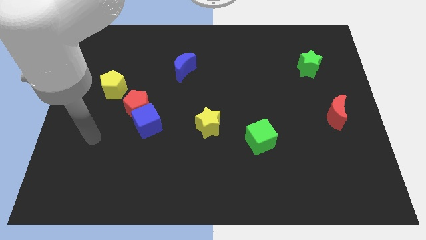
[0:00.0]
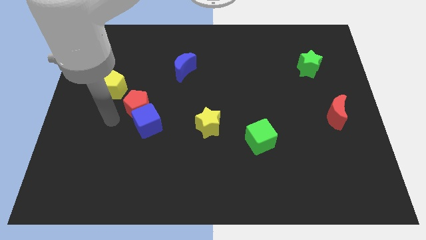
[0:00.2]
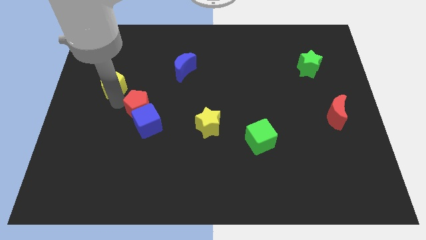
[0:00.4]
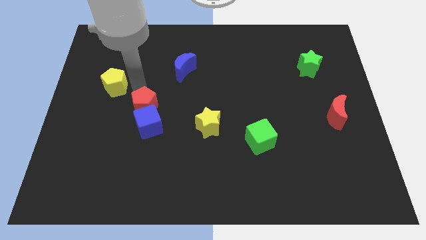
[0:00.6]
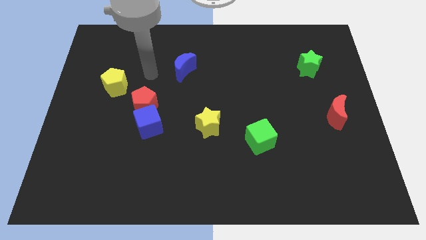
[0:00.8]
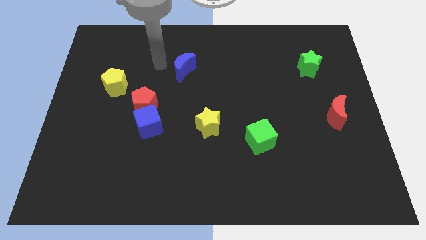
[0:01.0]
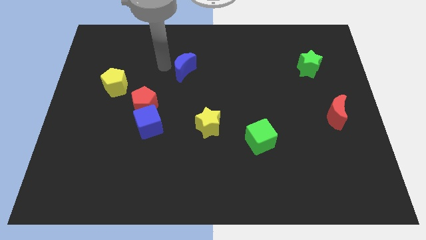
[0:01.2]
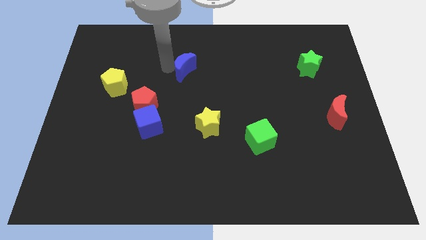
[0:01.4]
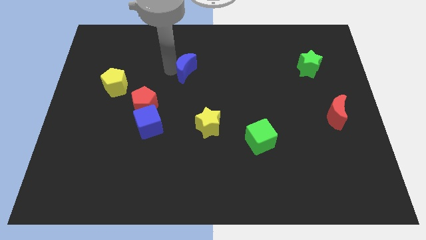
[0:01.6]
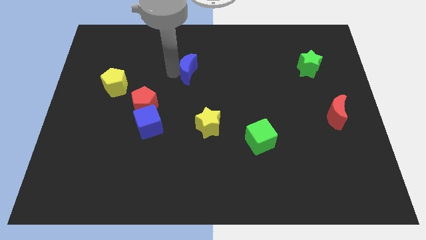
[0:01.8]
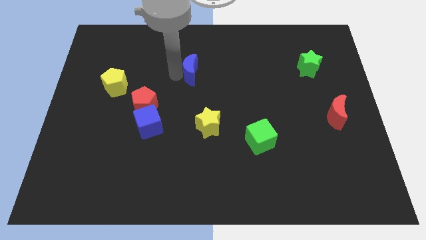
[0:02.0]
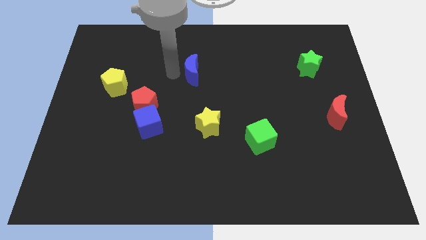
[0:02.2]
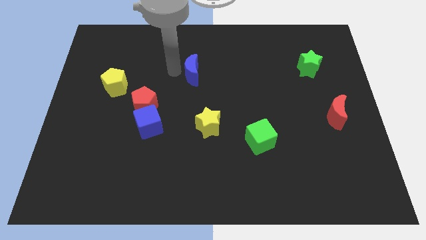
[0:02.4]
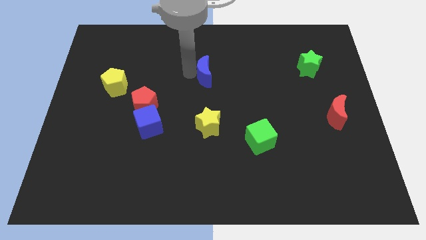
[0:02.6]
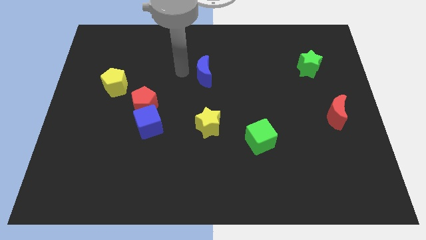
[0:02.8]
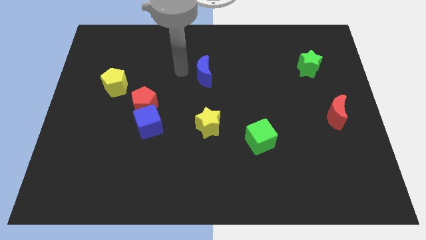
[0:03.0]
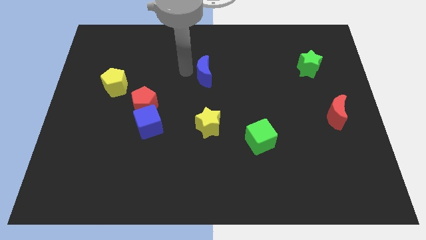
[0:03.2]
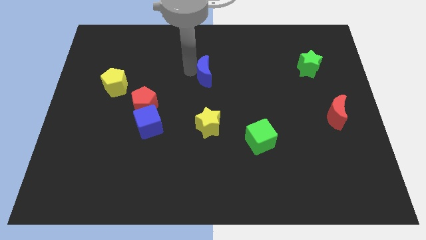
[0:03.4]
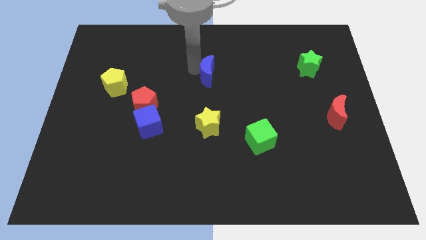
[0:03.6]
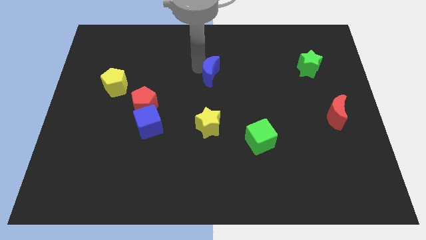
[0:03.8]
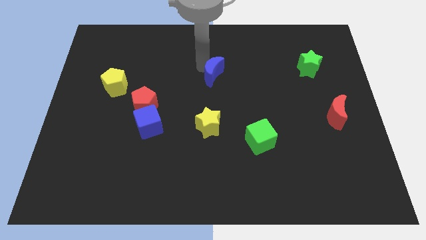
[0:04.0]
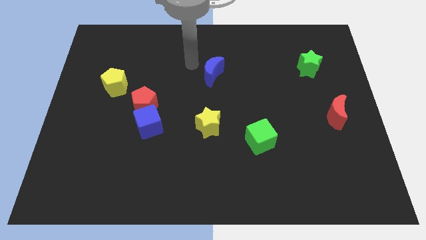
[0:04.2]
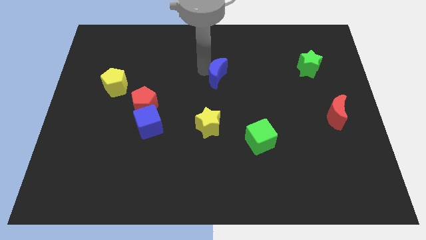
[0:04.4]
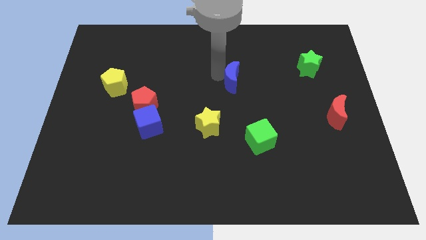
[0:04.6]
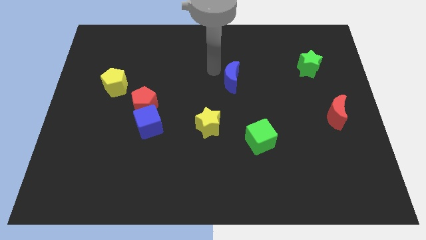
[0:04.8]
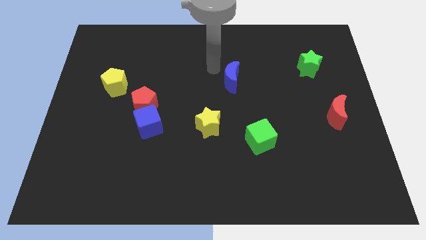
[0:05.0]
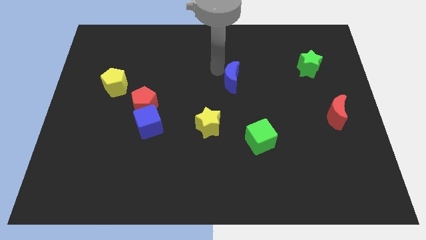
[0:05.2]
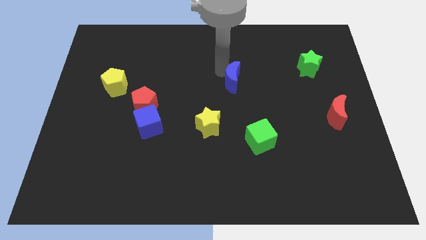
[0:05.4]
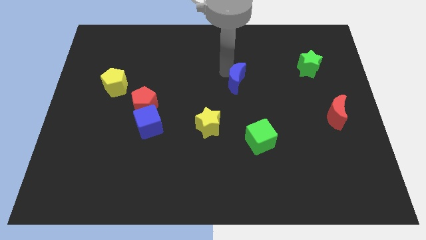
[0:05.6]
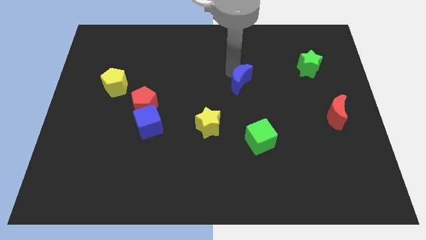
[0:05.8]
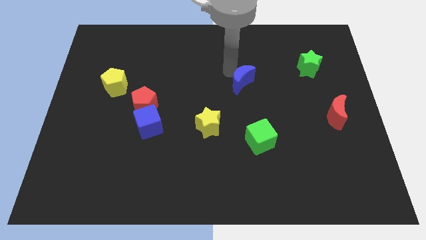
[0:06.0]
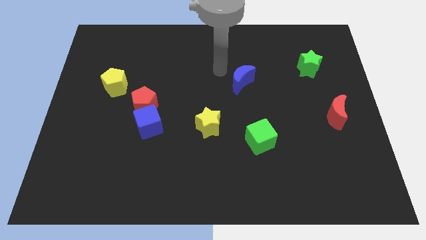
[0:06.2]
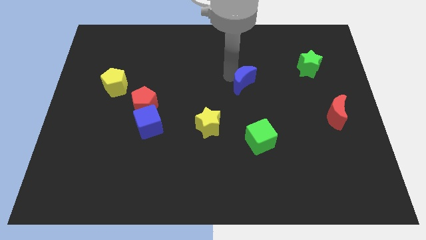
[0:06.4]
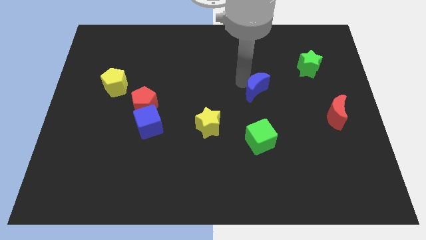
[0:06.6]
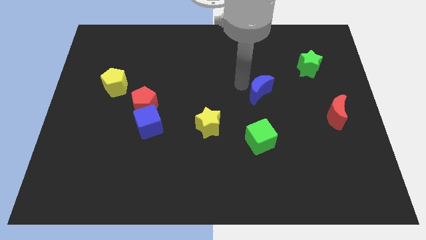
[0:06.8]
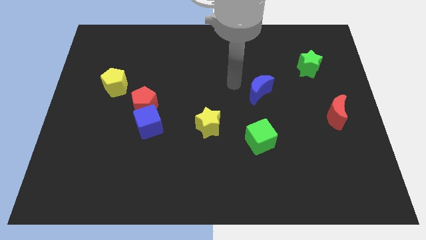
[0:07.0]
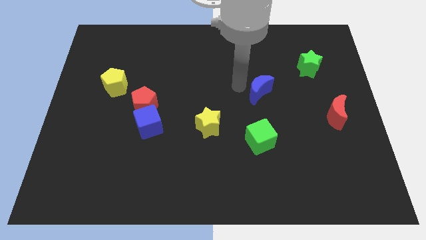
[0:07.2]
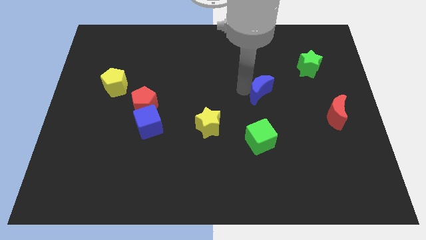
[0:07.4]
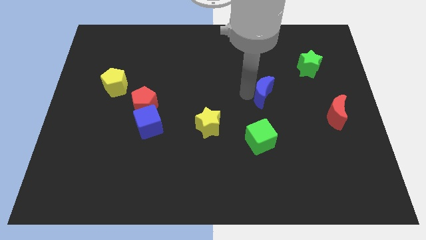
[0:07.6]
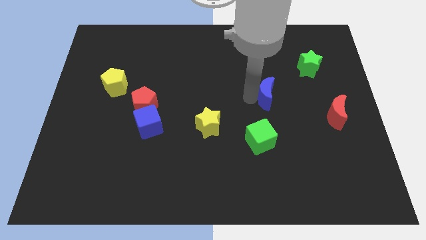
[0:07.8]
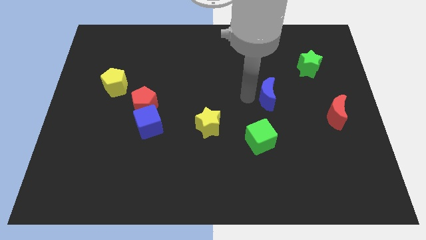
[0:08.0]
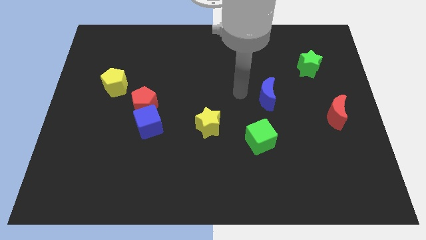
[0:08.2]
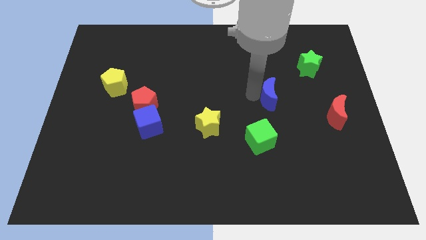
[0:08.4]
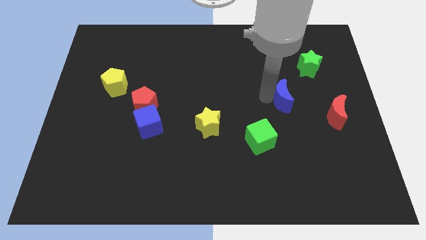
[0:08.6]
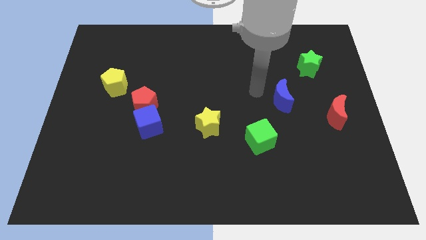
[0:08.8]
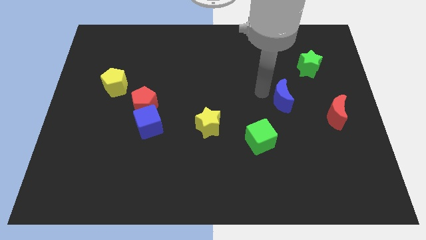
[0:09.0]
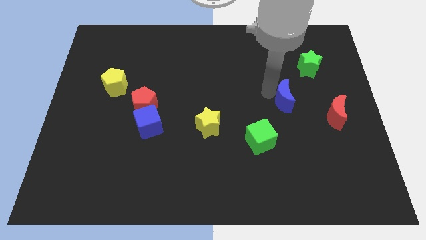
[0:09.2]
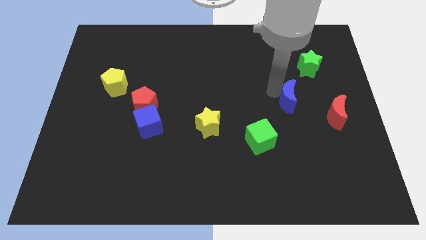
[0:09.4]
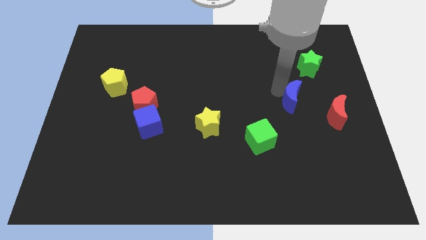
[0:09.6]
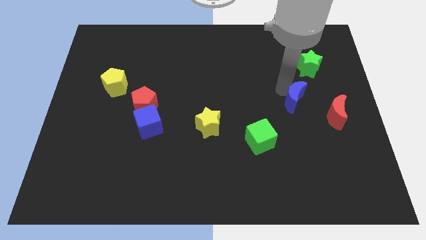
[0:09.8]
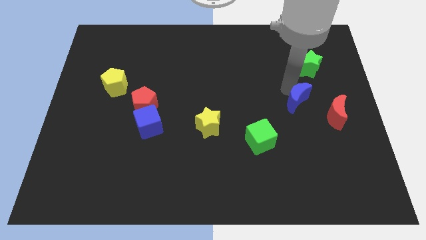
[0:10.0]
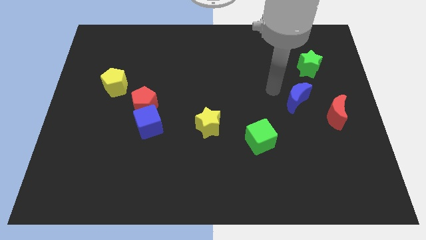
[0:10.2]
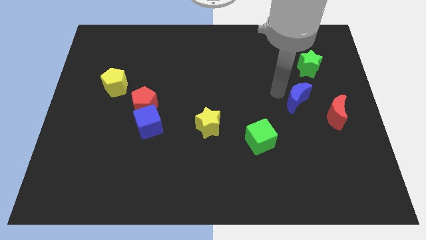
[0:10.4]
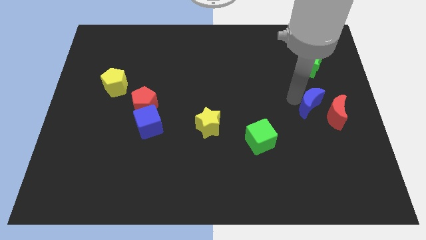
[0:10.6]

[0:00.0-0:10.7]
move the blue moon next to the red moon

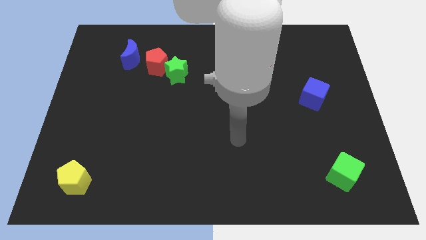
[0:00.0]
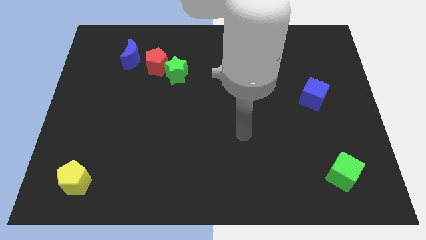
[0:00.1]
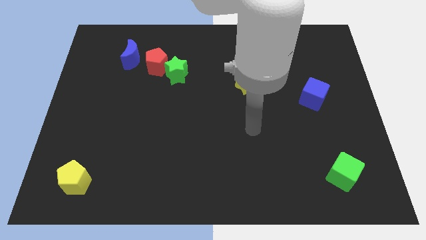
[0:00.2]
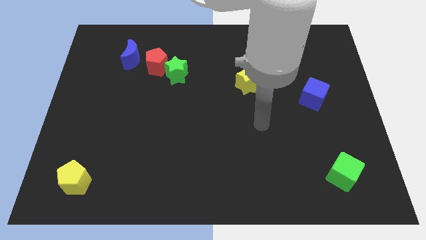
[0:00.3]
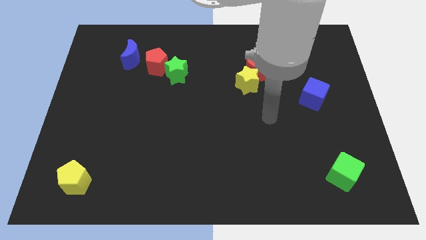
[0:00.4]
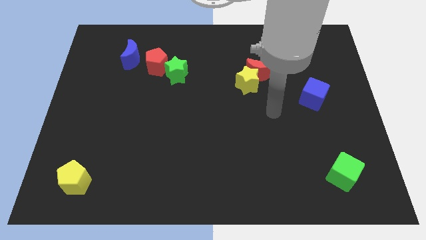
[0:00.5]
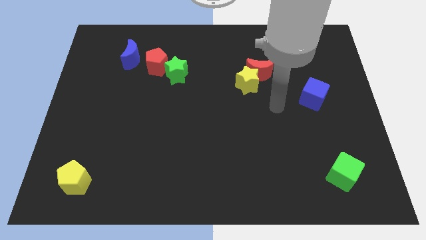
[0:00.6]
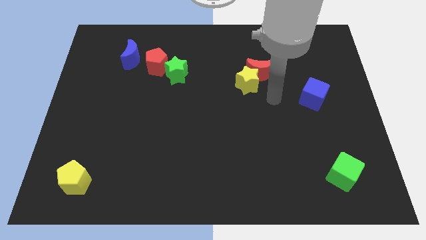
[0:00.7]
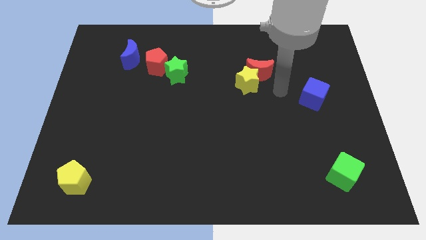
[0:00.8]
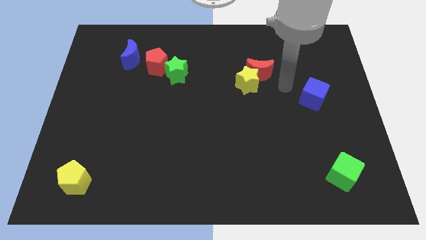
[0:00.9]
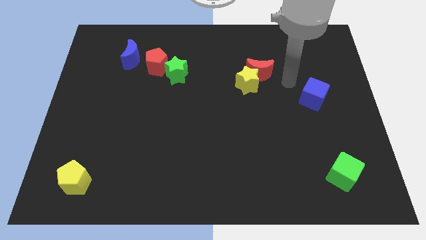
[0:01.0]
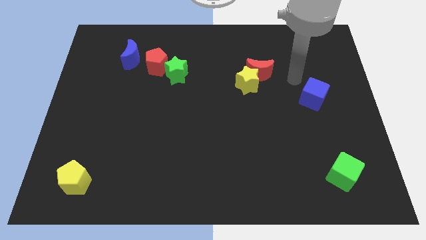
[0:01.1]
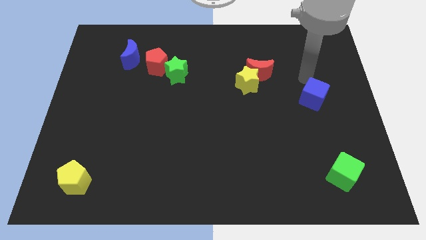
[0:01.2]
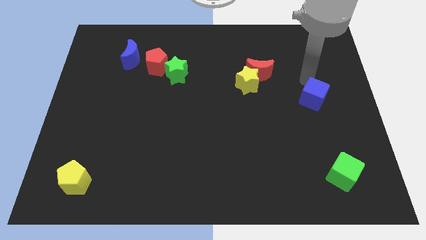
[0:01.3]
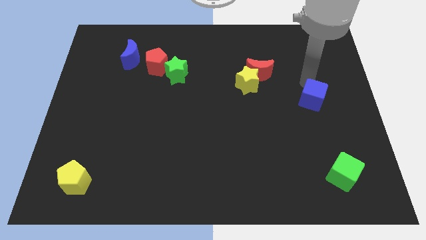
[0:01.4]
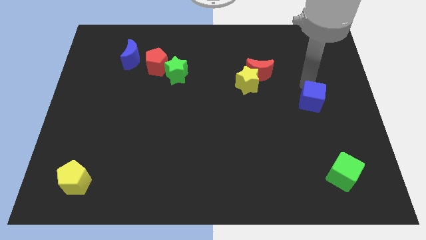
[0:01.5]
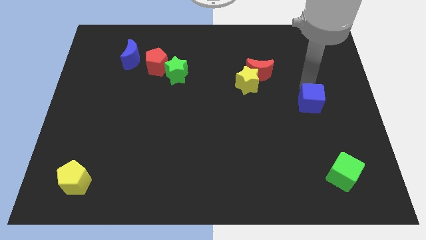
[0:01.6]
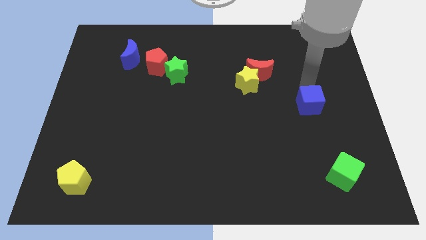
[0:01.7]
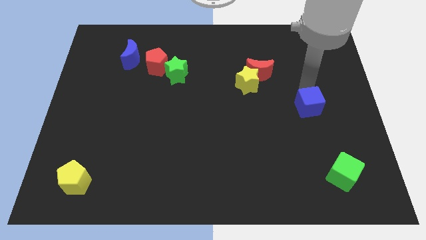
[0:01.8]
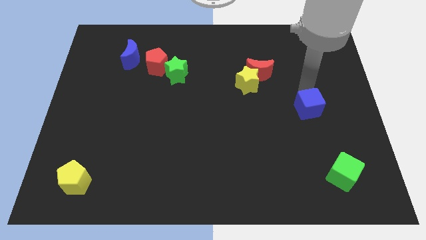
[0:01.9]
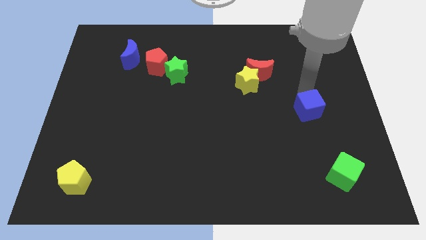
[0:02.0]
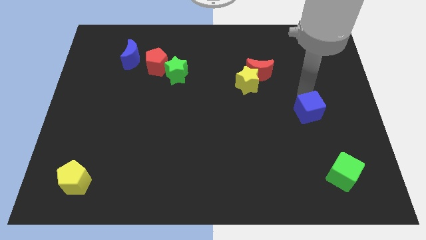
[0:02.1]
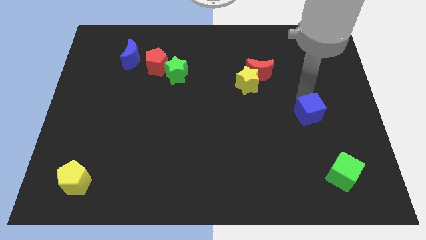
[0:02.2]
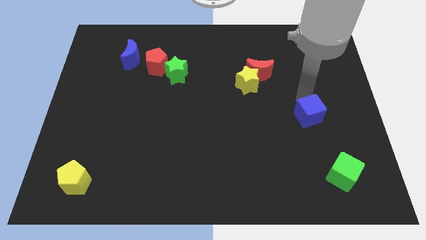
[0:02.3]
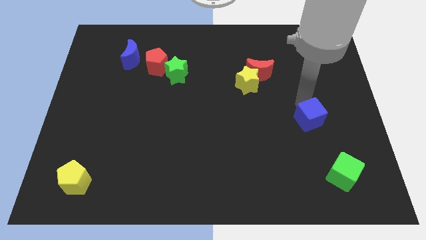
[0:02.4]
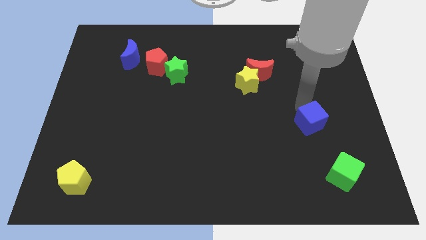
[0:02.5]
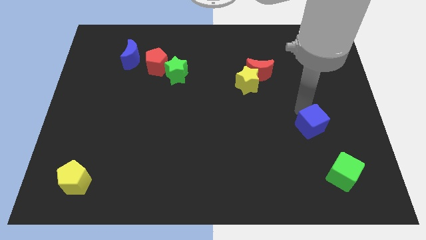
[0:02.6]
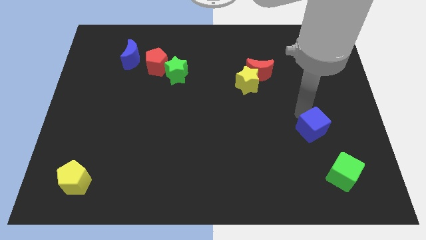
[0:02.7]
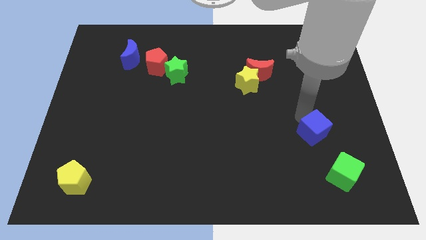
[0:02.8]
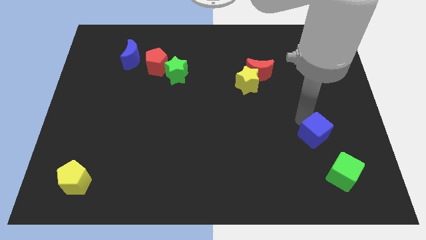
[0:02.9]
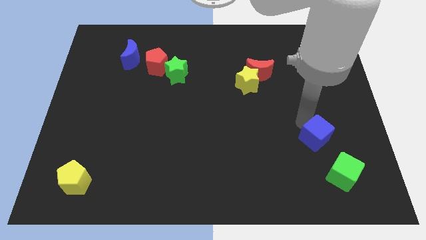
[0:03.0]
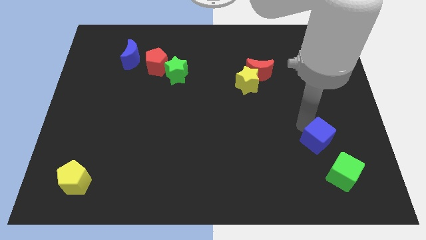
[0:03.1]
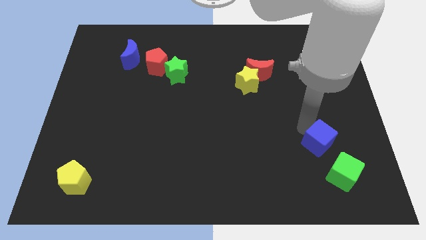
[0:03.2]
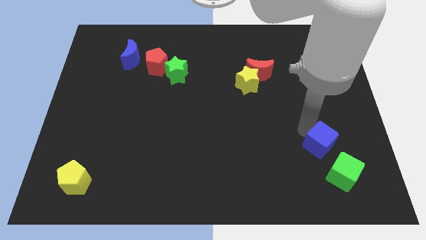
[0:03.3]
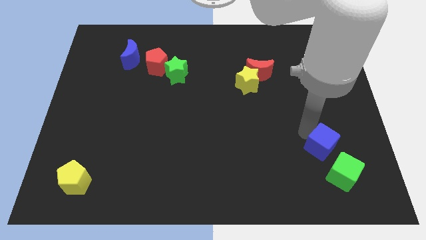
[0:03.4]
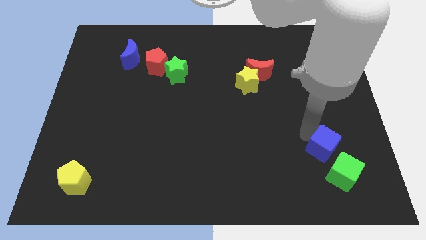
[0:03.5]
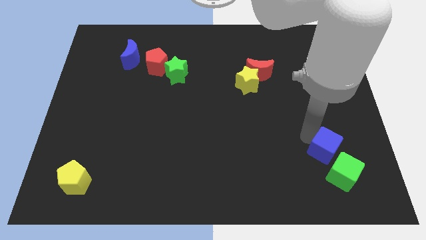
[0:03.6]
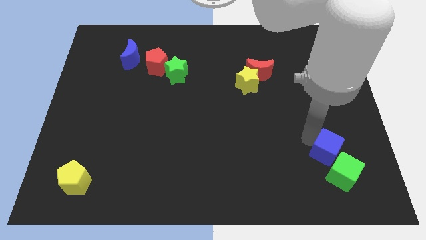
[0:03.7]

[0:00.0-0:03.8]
put the blue cube next to the green cube
